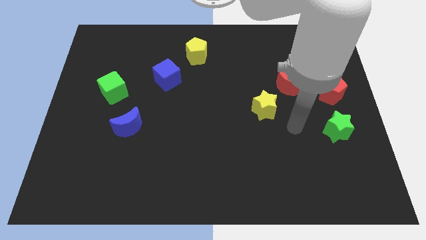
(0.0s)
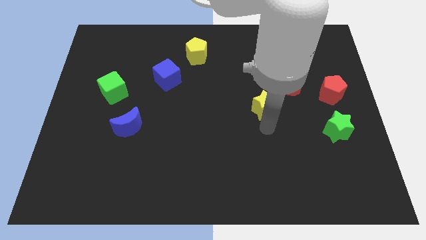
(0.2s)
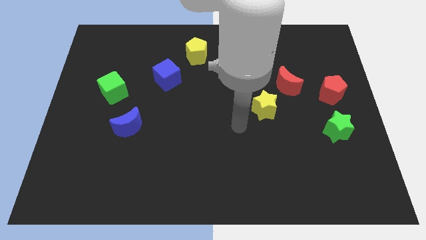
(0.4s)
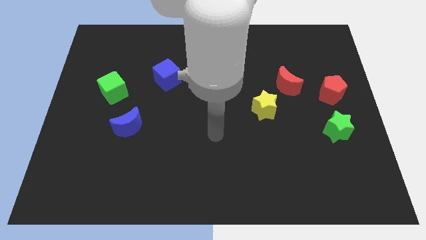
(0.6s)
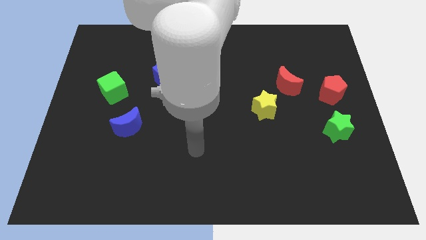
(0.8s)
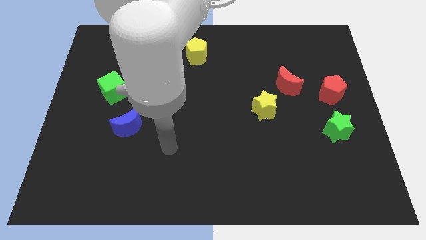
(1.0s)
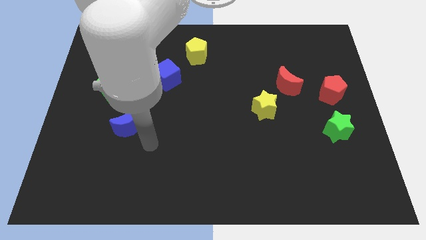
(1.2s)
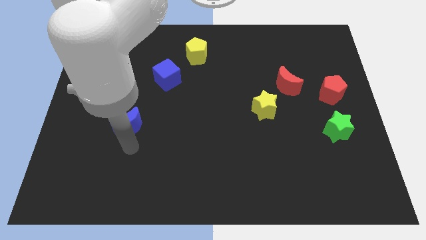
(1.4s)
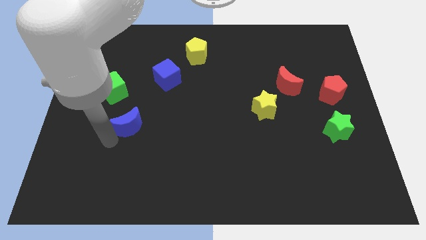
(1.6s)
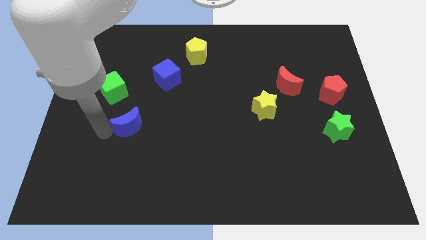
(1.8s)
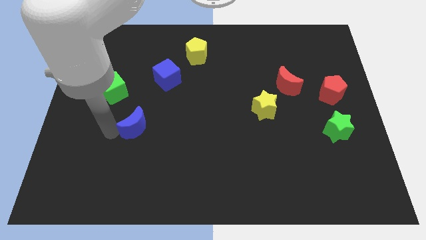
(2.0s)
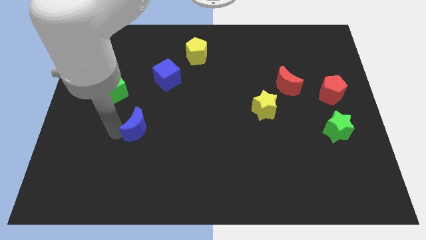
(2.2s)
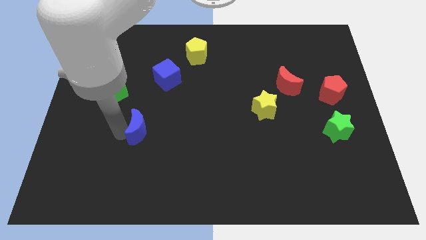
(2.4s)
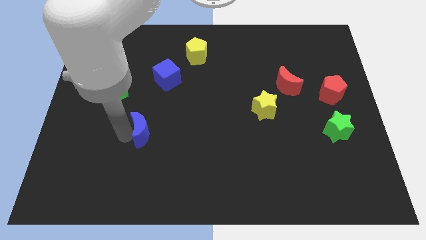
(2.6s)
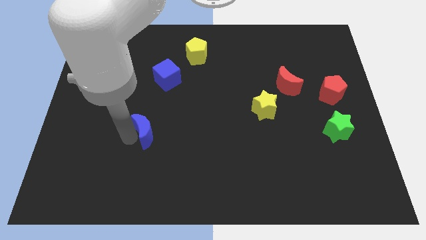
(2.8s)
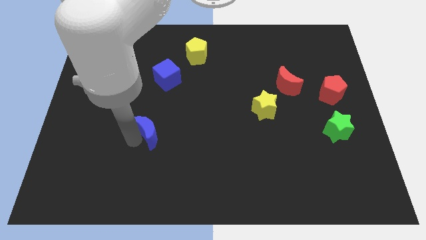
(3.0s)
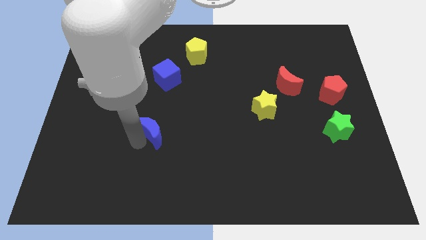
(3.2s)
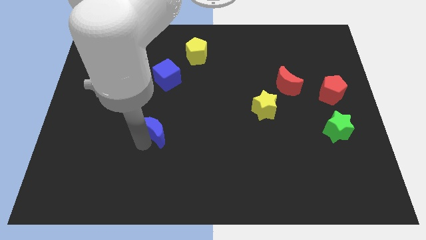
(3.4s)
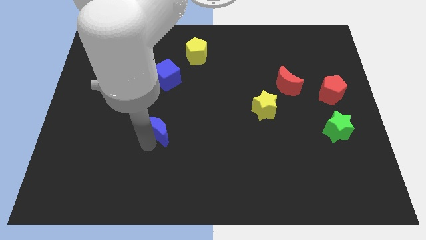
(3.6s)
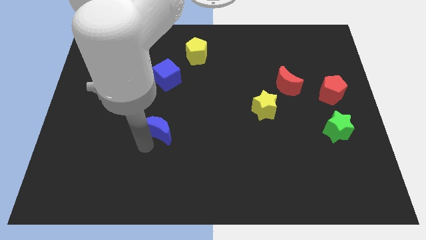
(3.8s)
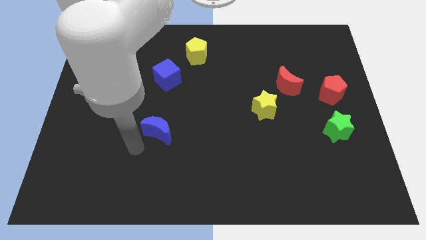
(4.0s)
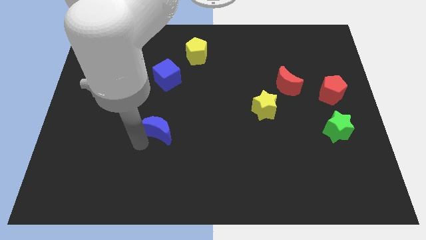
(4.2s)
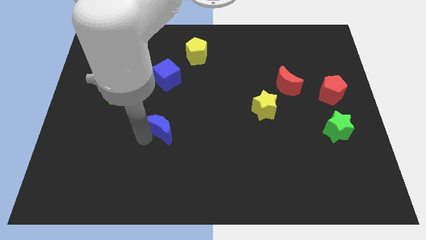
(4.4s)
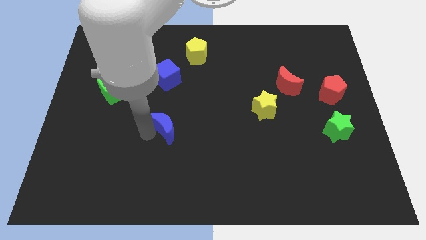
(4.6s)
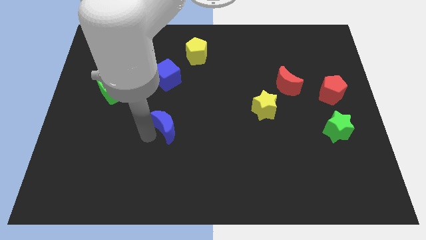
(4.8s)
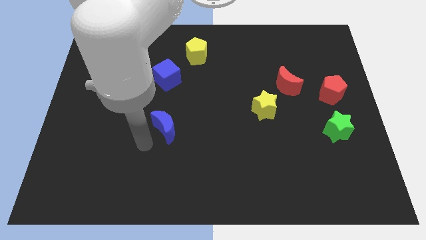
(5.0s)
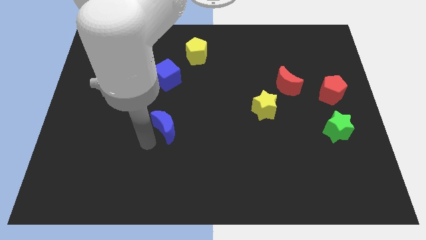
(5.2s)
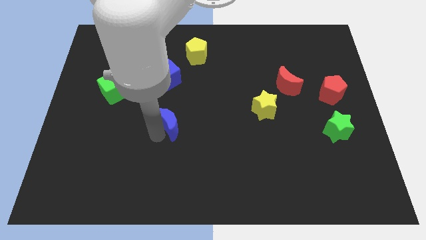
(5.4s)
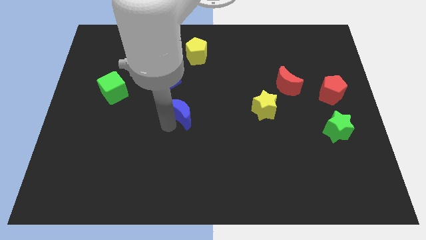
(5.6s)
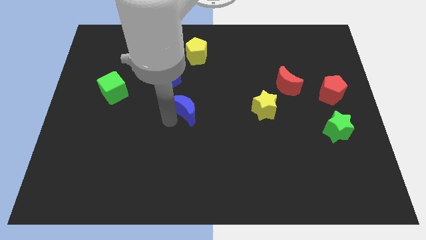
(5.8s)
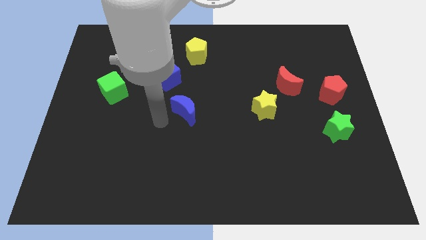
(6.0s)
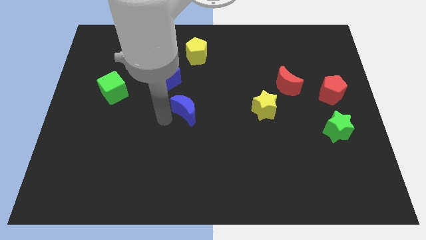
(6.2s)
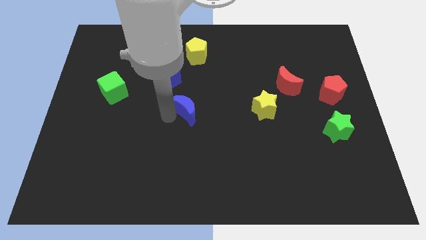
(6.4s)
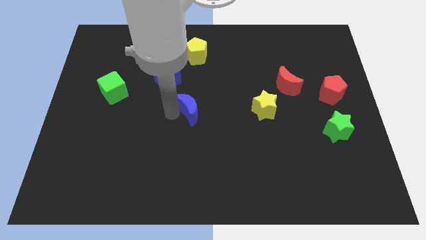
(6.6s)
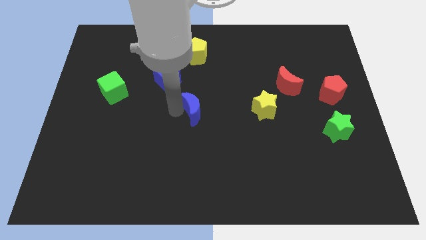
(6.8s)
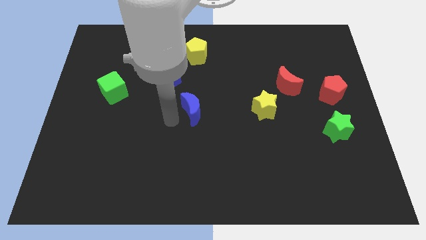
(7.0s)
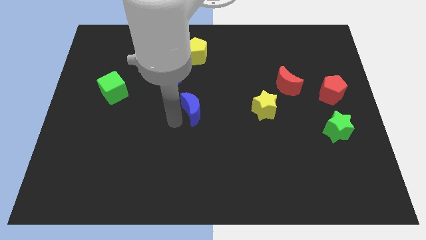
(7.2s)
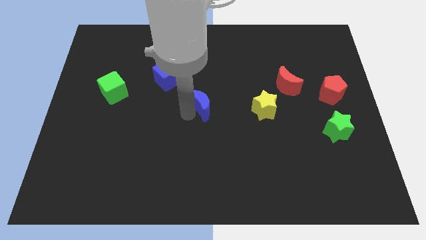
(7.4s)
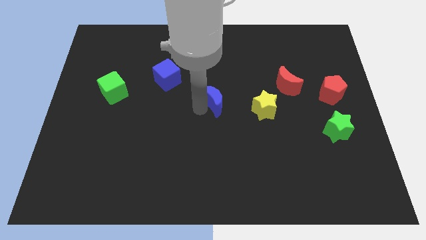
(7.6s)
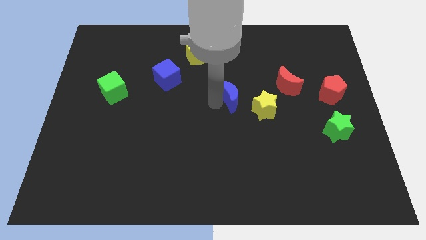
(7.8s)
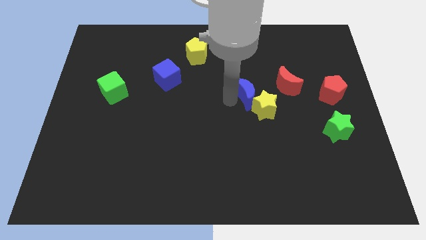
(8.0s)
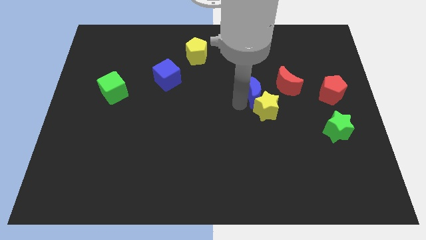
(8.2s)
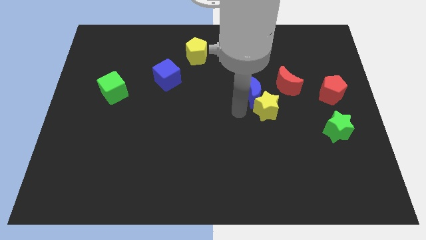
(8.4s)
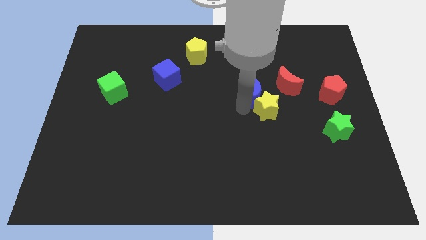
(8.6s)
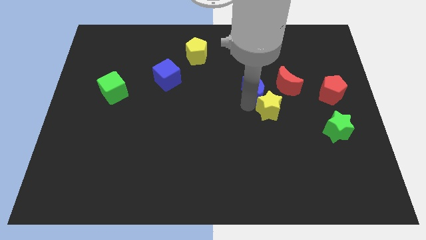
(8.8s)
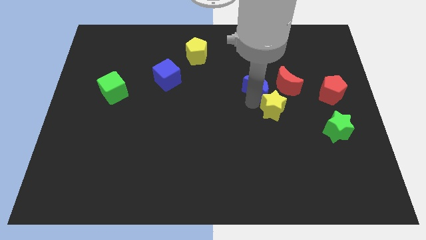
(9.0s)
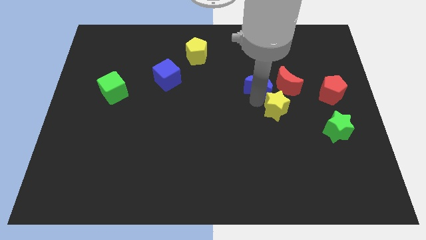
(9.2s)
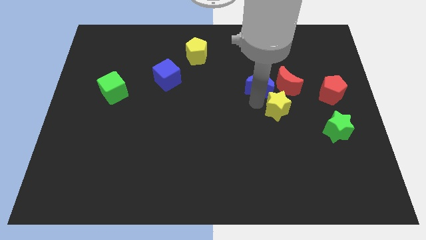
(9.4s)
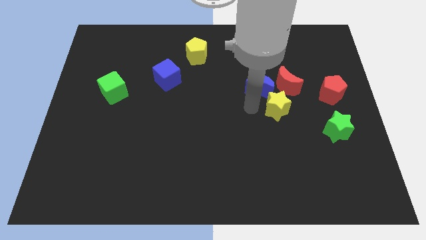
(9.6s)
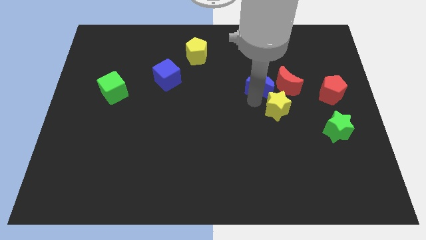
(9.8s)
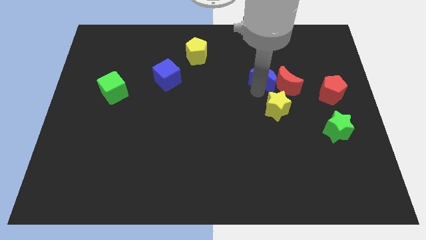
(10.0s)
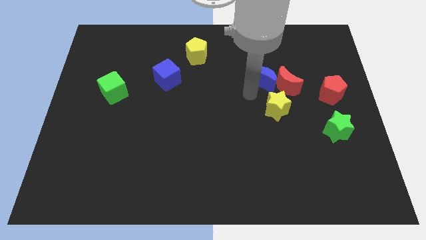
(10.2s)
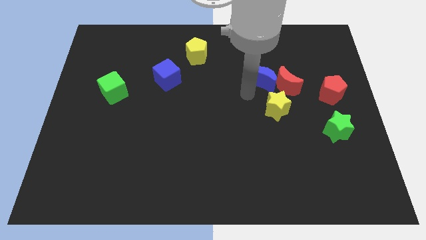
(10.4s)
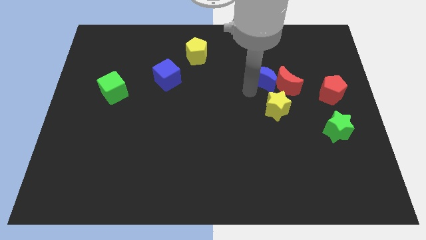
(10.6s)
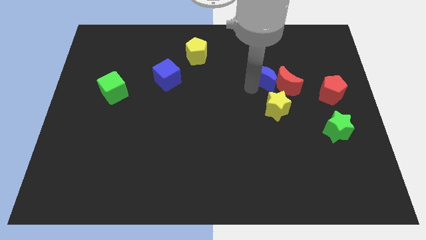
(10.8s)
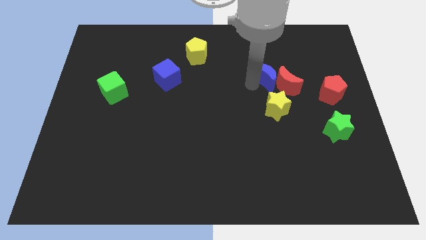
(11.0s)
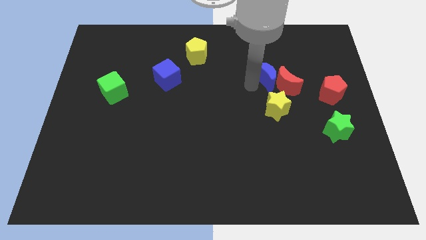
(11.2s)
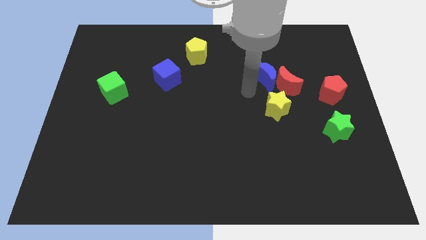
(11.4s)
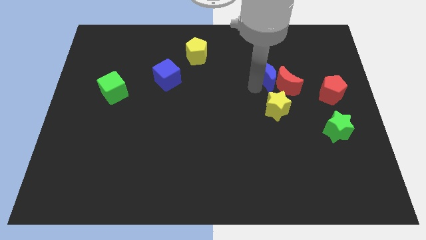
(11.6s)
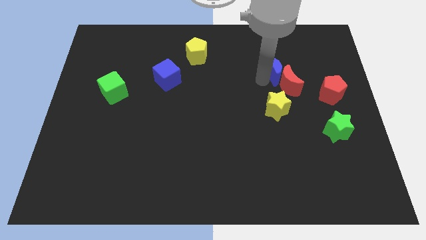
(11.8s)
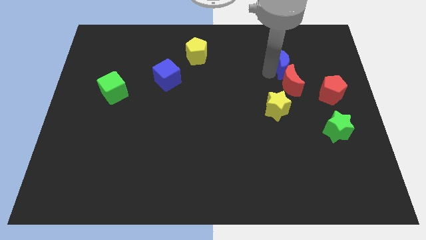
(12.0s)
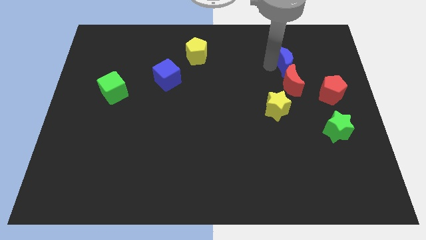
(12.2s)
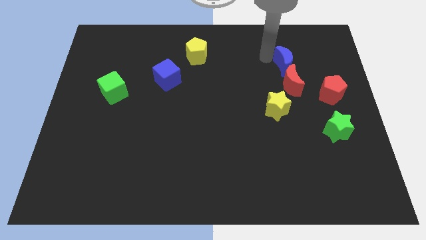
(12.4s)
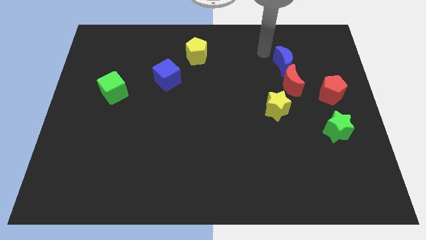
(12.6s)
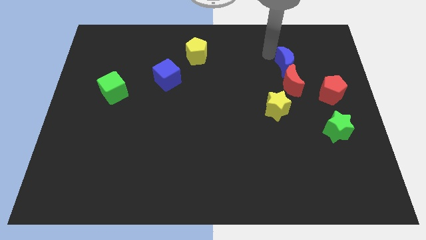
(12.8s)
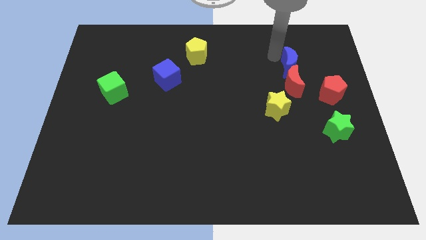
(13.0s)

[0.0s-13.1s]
put the blue moon to the top left of the red pentagon

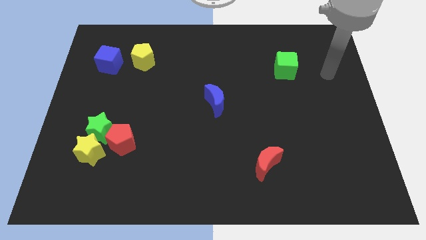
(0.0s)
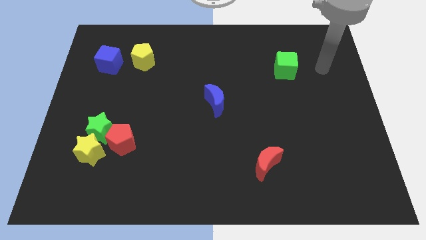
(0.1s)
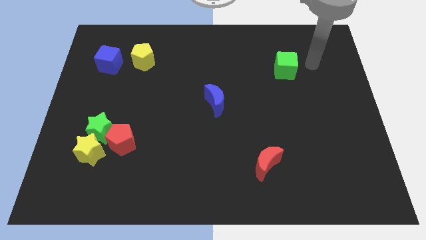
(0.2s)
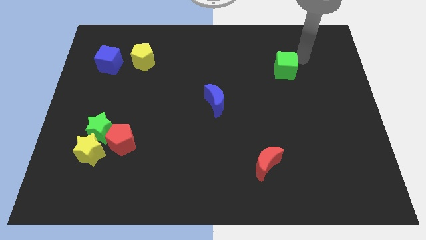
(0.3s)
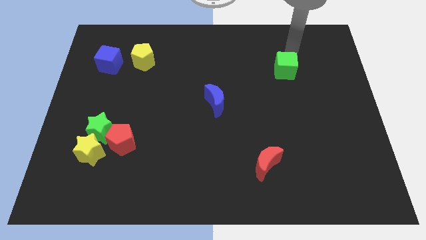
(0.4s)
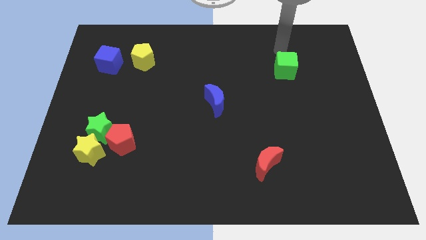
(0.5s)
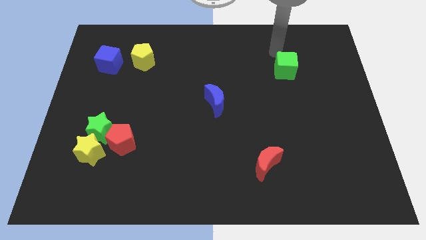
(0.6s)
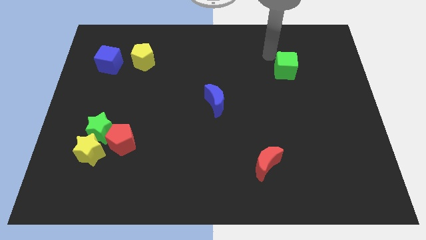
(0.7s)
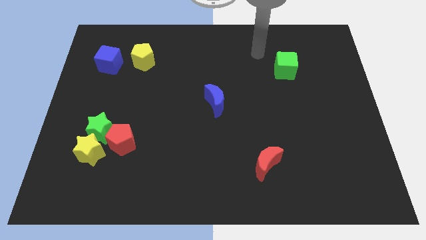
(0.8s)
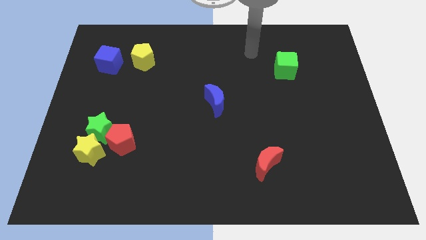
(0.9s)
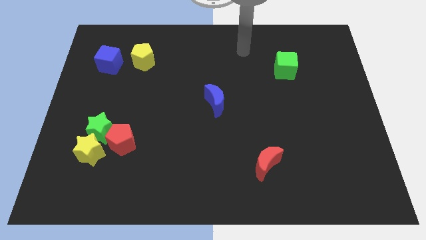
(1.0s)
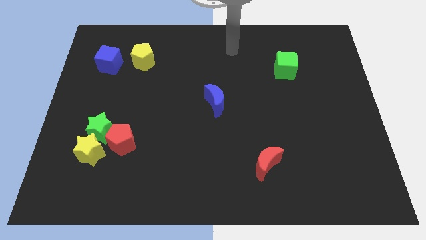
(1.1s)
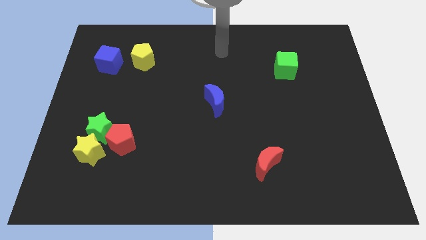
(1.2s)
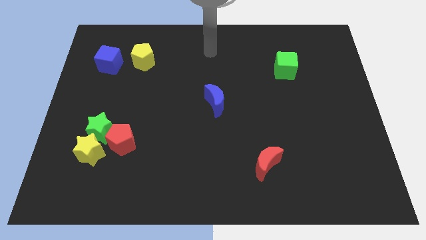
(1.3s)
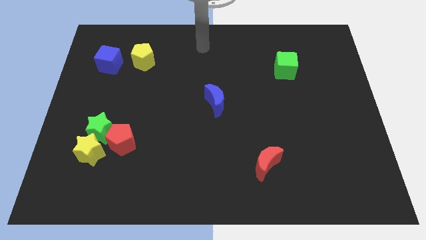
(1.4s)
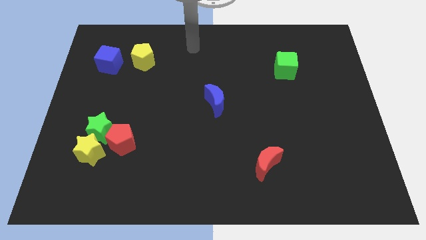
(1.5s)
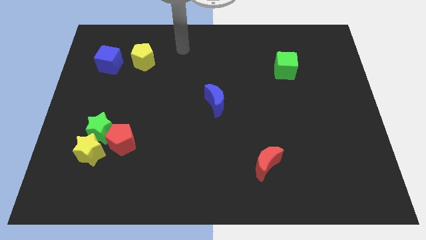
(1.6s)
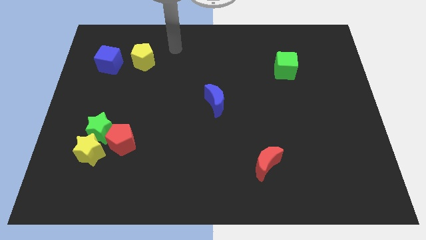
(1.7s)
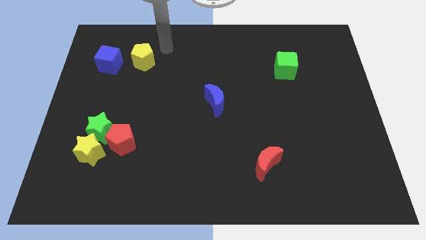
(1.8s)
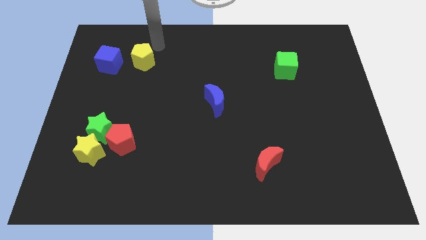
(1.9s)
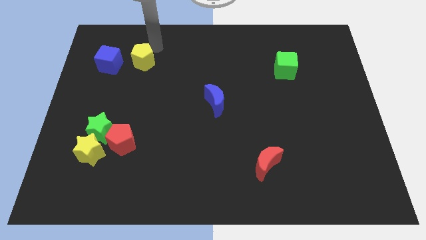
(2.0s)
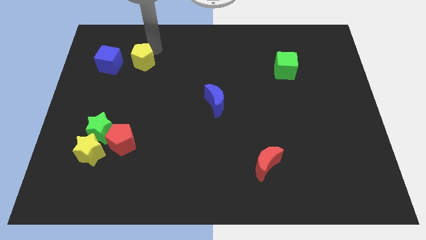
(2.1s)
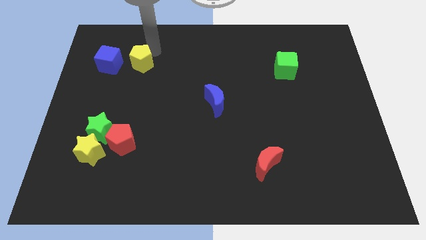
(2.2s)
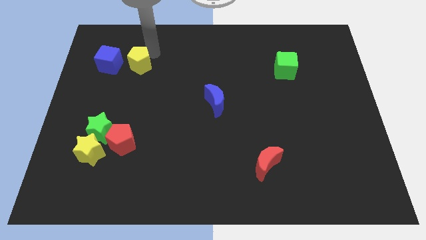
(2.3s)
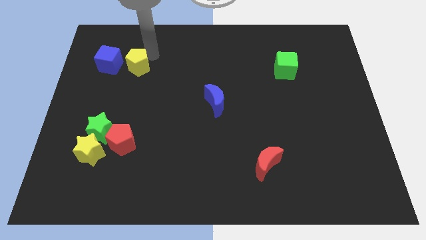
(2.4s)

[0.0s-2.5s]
push the yellow pentagon to the bottom right side of the blue cube
